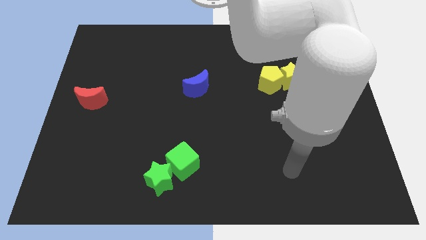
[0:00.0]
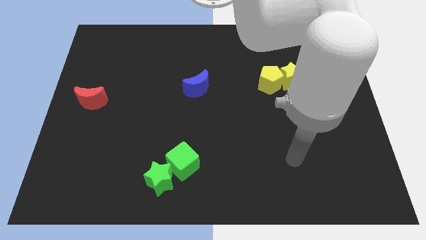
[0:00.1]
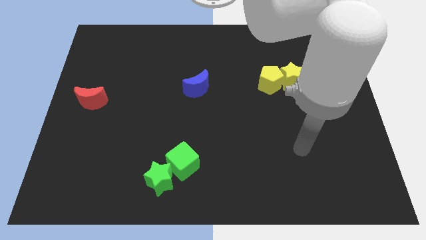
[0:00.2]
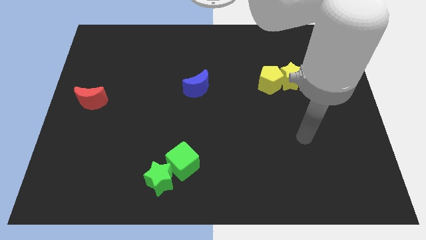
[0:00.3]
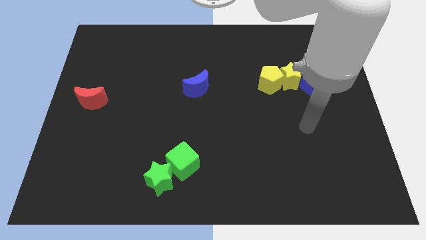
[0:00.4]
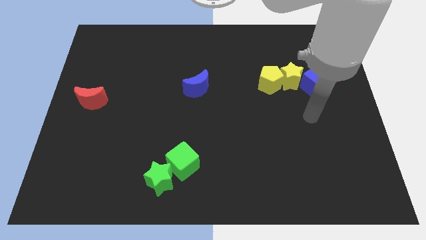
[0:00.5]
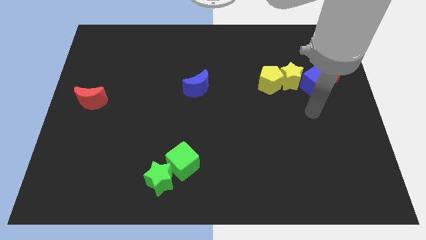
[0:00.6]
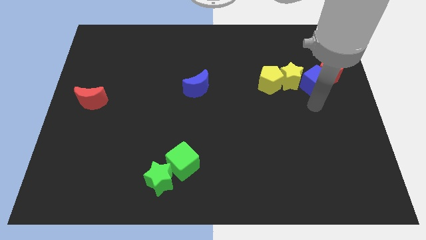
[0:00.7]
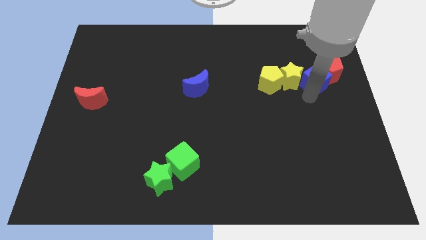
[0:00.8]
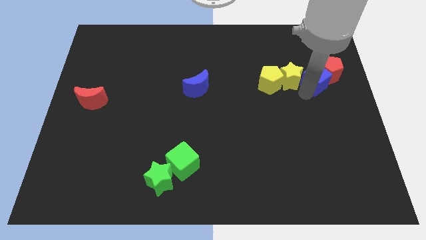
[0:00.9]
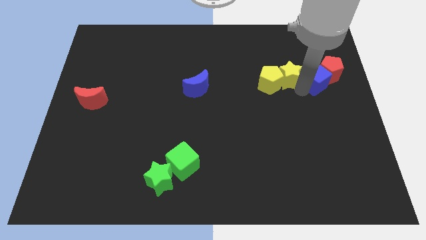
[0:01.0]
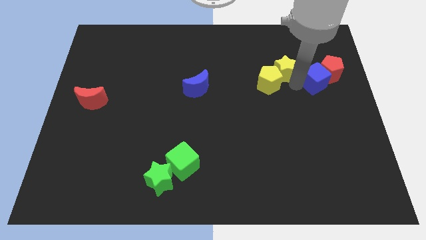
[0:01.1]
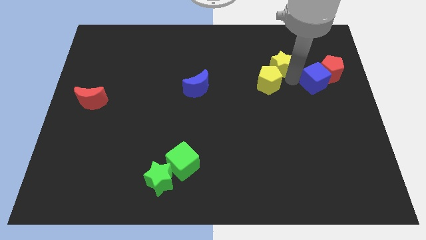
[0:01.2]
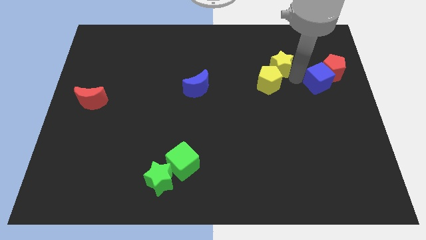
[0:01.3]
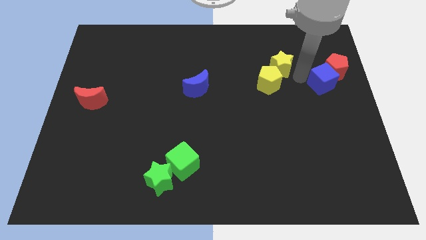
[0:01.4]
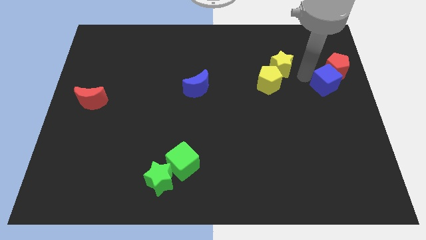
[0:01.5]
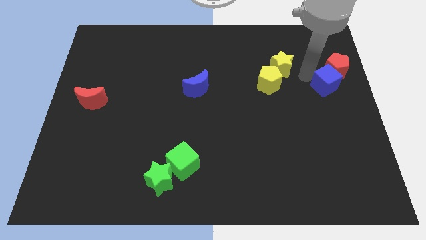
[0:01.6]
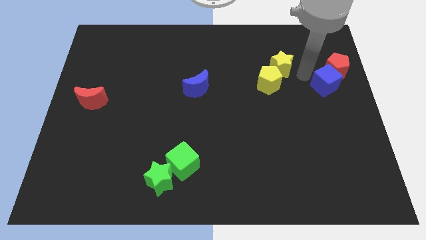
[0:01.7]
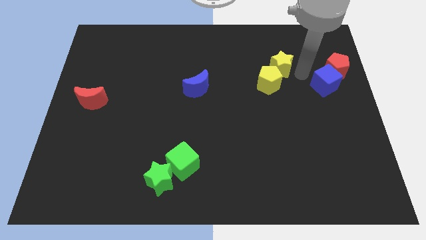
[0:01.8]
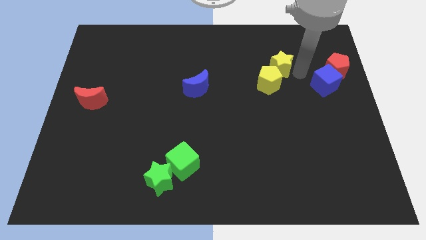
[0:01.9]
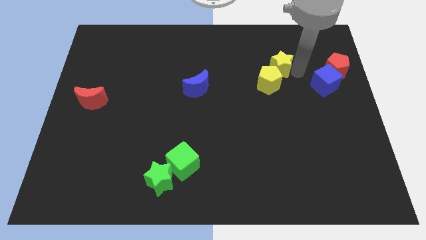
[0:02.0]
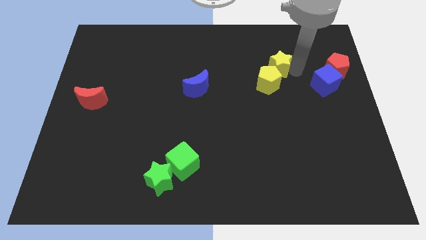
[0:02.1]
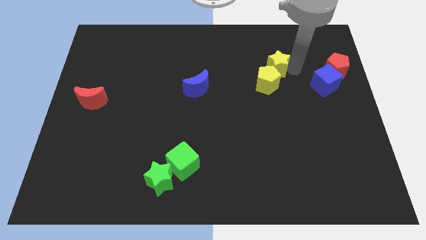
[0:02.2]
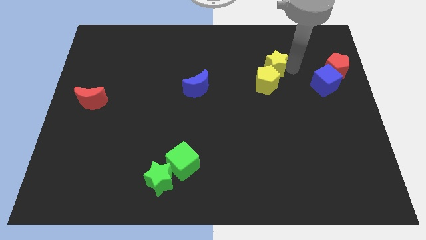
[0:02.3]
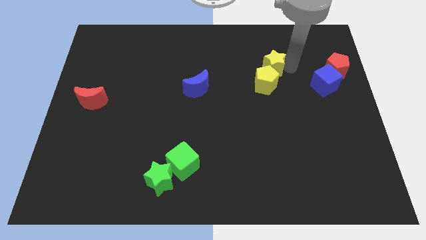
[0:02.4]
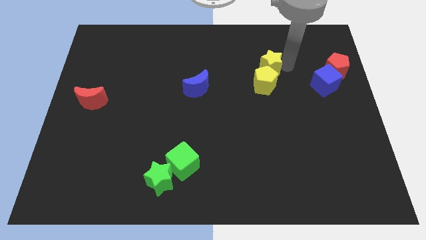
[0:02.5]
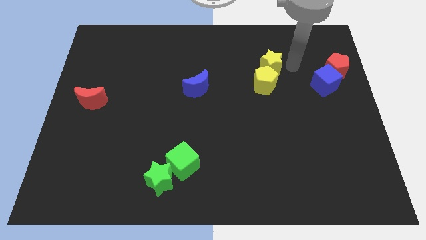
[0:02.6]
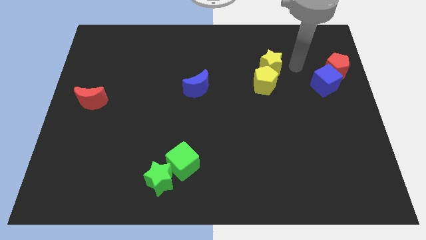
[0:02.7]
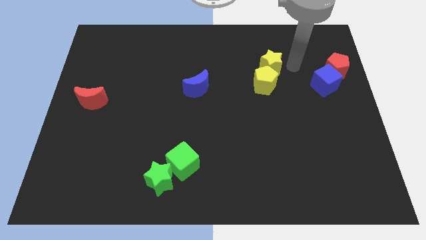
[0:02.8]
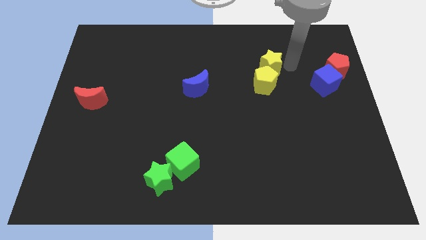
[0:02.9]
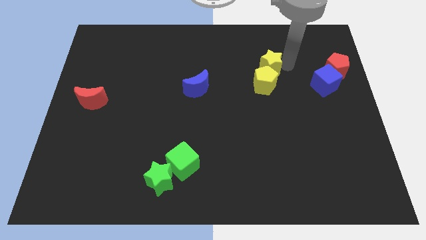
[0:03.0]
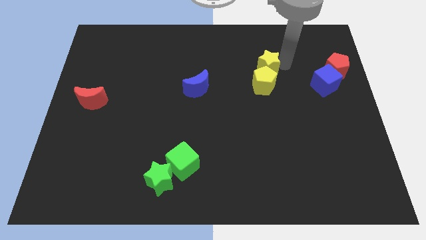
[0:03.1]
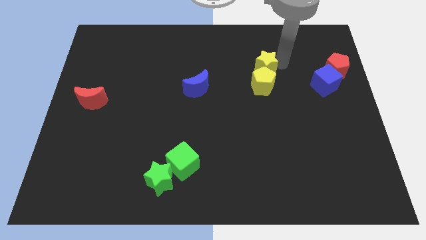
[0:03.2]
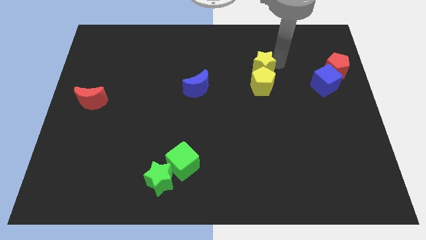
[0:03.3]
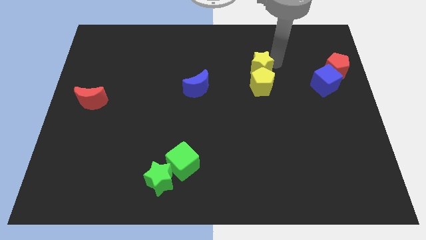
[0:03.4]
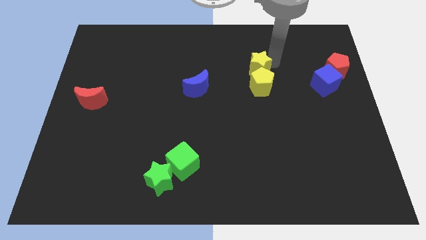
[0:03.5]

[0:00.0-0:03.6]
slide the yellow star somewhat left

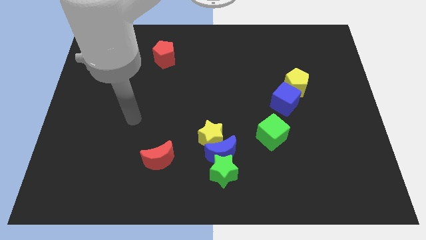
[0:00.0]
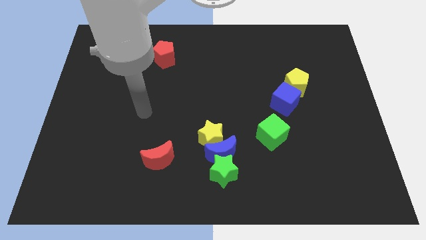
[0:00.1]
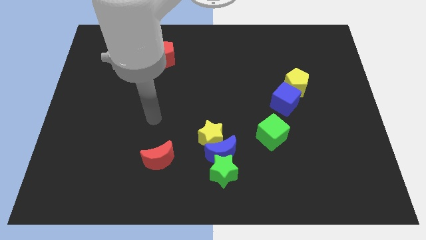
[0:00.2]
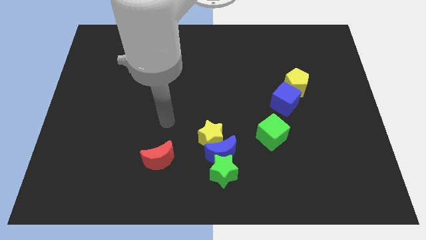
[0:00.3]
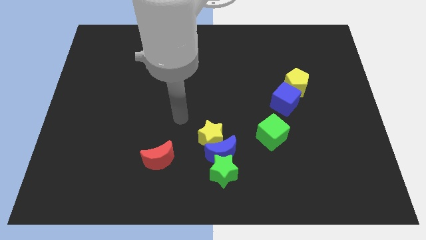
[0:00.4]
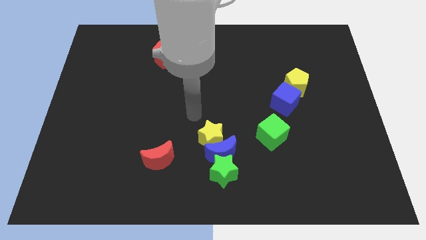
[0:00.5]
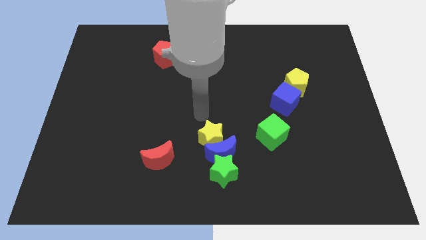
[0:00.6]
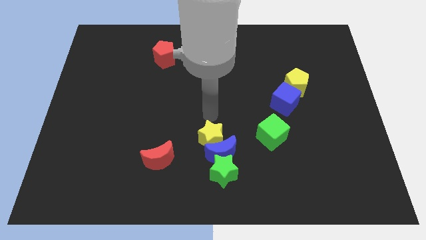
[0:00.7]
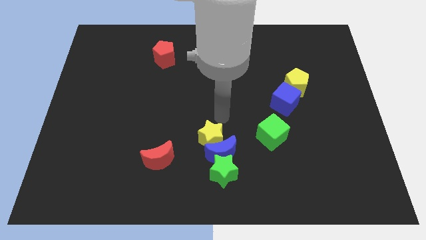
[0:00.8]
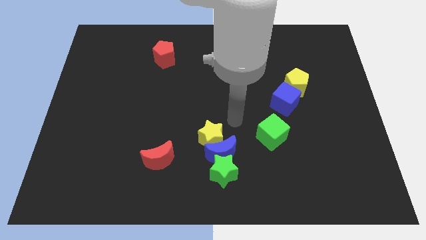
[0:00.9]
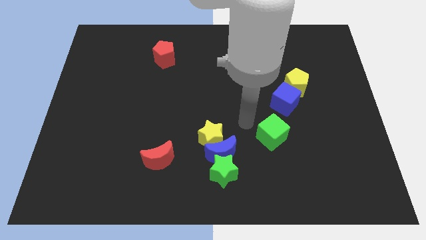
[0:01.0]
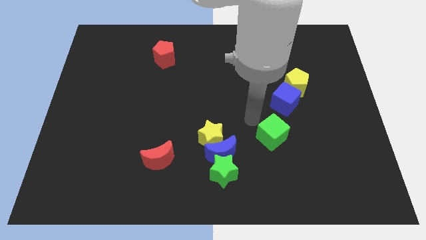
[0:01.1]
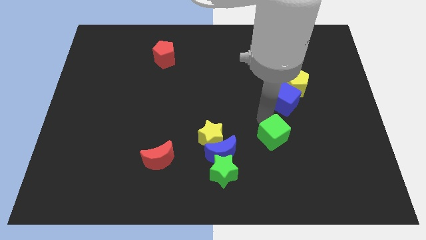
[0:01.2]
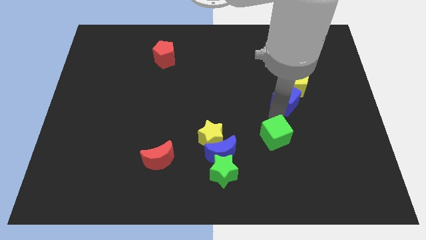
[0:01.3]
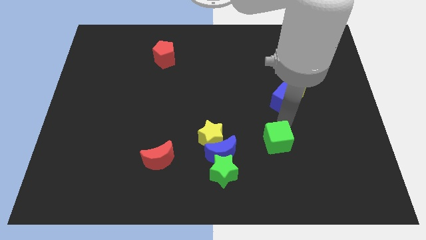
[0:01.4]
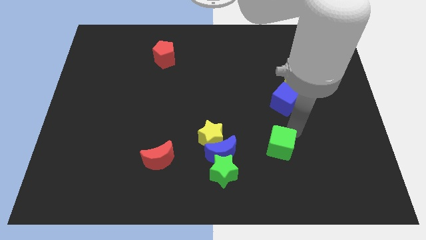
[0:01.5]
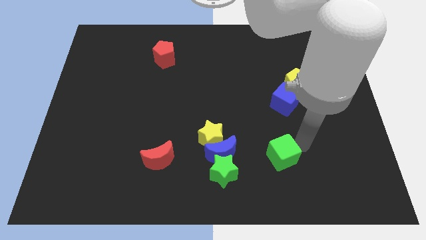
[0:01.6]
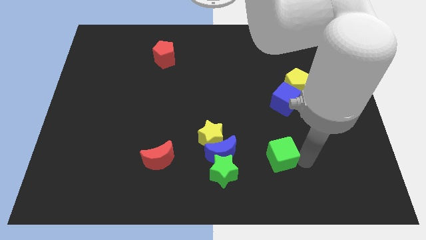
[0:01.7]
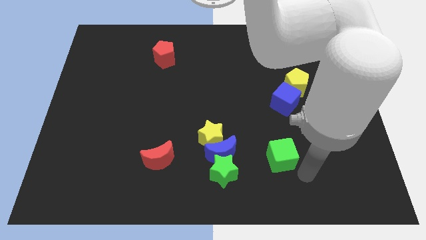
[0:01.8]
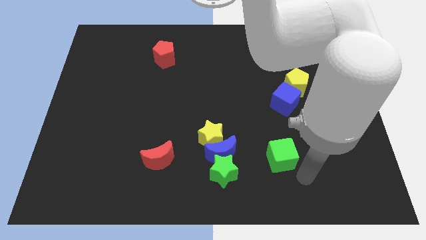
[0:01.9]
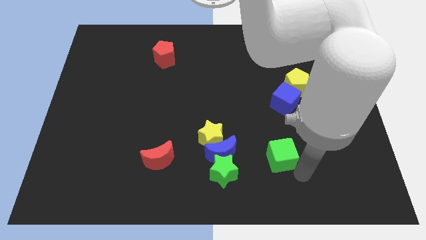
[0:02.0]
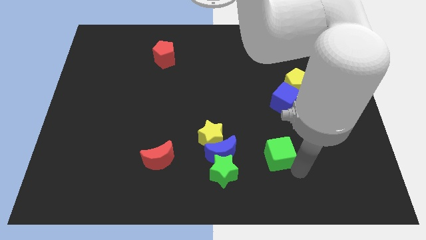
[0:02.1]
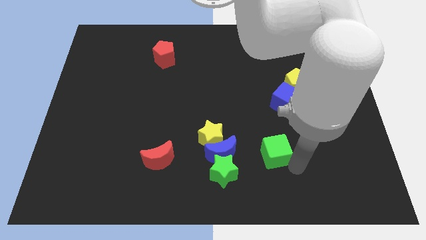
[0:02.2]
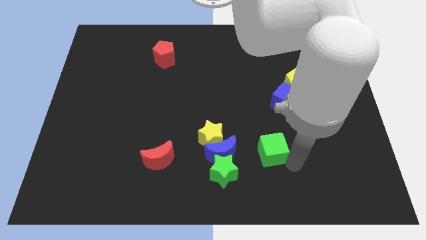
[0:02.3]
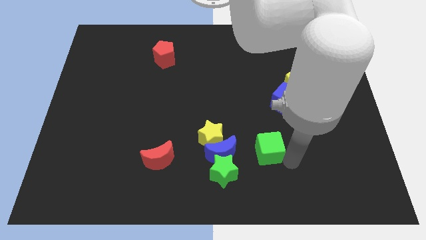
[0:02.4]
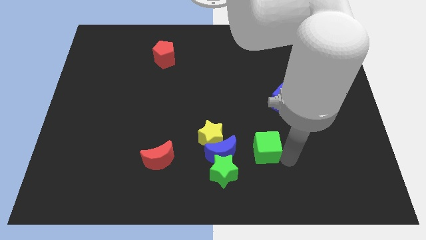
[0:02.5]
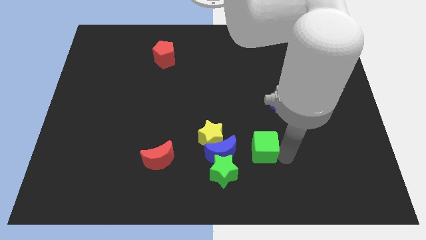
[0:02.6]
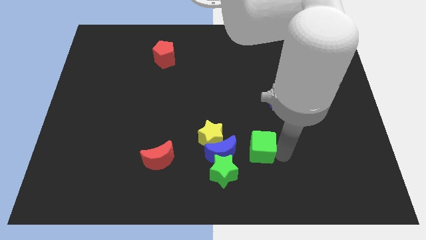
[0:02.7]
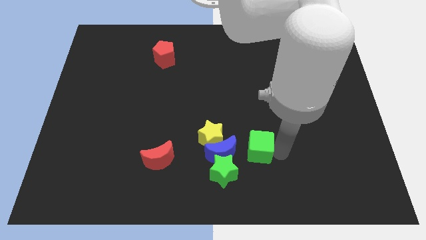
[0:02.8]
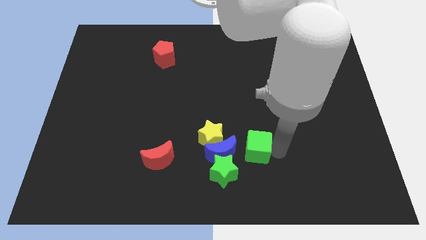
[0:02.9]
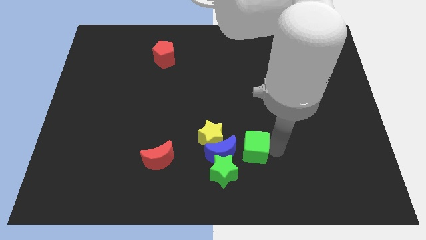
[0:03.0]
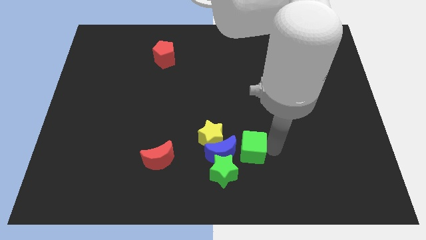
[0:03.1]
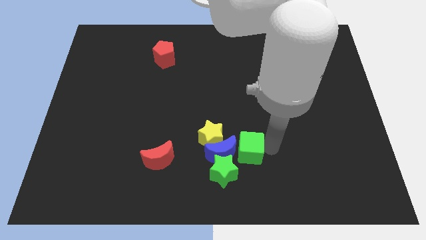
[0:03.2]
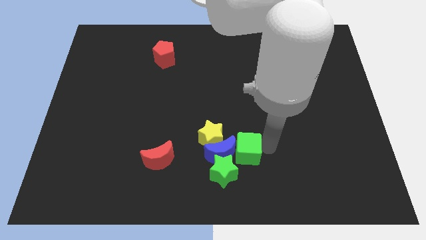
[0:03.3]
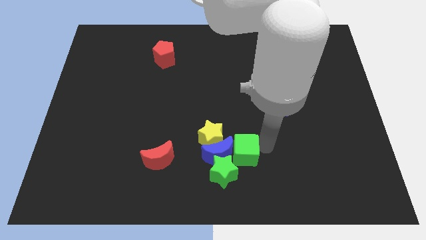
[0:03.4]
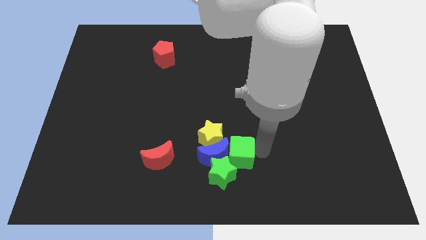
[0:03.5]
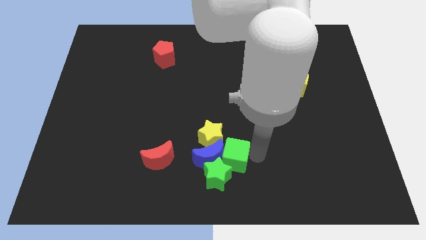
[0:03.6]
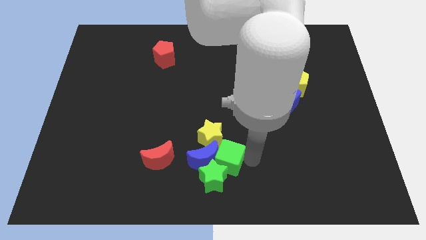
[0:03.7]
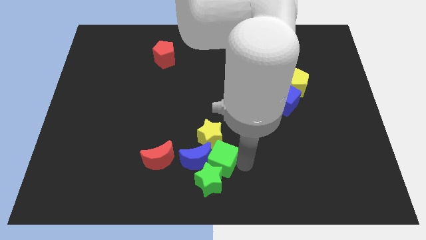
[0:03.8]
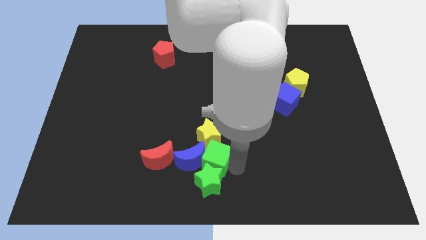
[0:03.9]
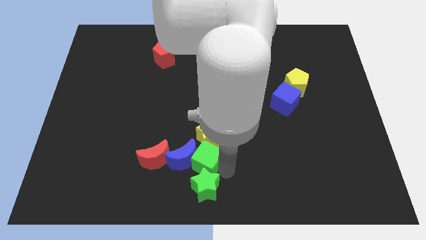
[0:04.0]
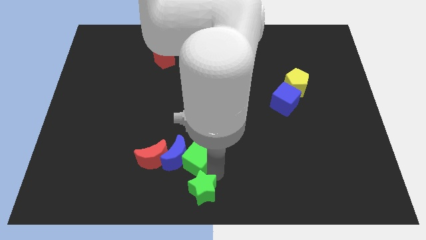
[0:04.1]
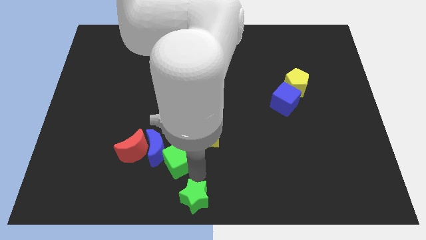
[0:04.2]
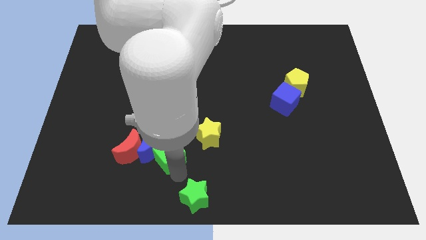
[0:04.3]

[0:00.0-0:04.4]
push the green cube left
